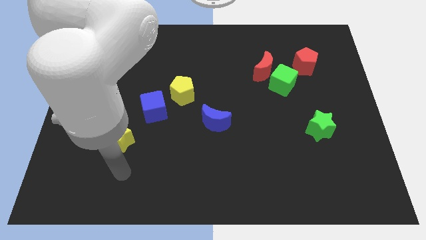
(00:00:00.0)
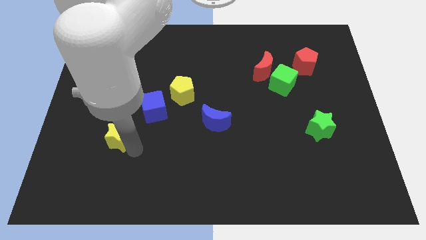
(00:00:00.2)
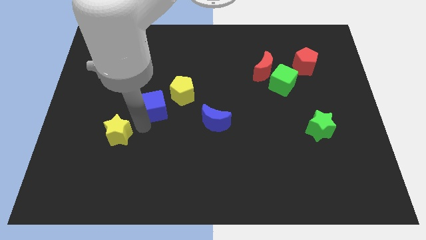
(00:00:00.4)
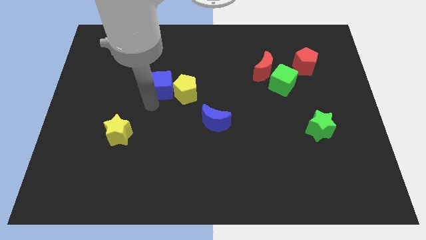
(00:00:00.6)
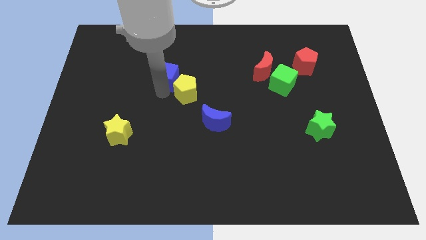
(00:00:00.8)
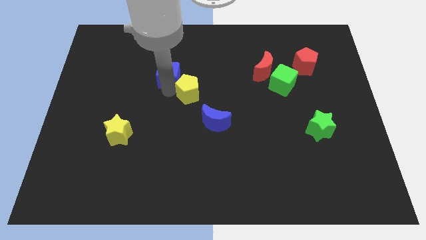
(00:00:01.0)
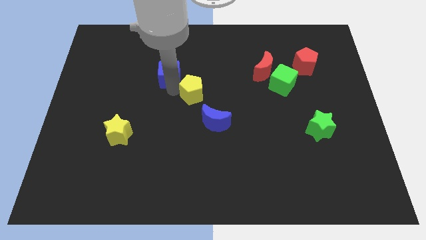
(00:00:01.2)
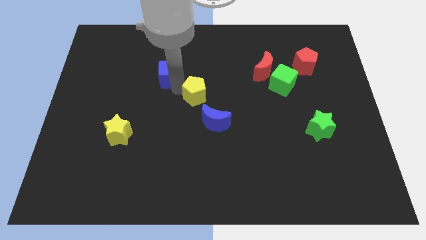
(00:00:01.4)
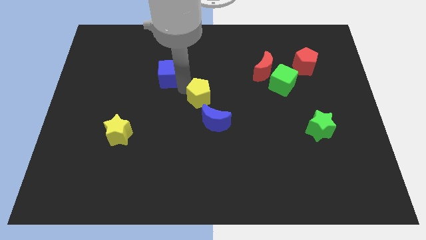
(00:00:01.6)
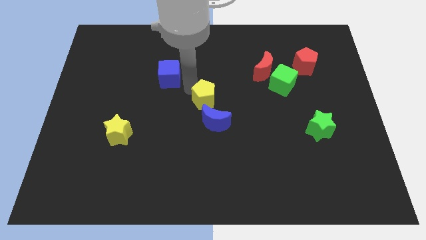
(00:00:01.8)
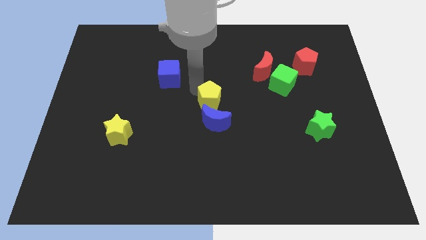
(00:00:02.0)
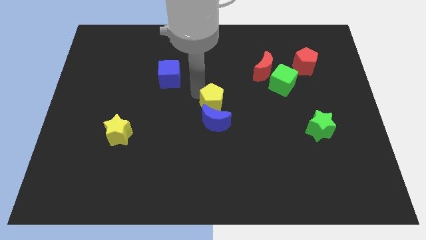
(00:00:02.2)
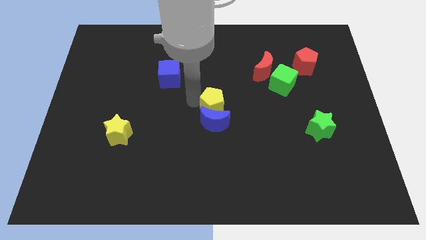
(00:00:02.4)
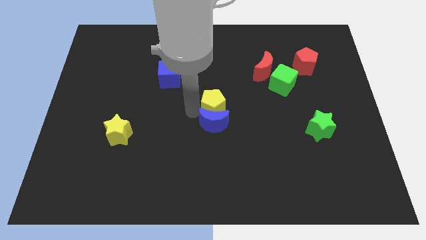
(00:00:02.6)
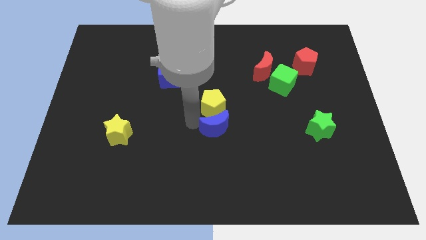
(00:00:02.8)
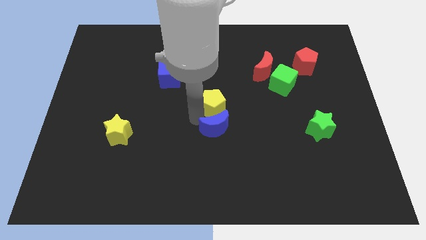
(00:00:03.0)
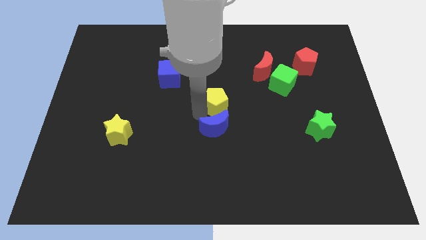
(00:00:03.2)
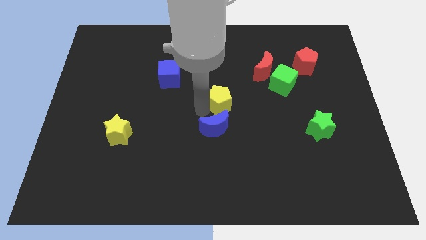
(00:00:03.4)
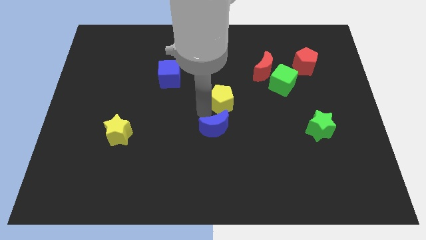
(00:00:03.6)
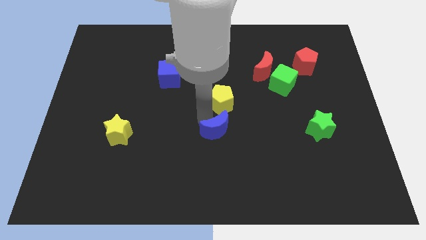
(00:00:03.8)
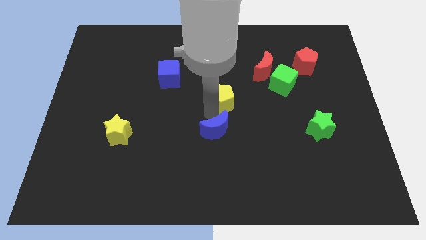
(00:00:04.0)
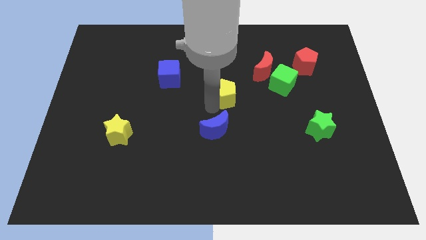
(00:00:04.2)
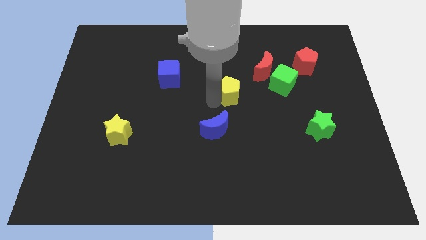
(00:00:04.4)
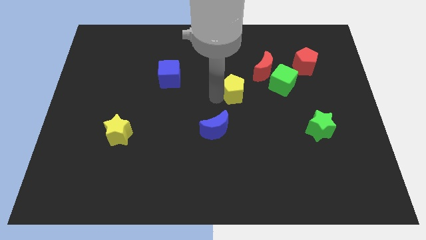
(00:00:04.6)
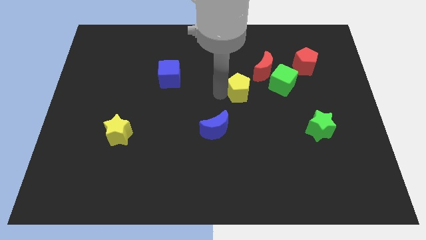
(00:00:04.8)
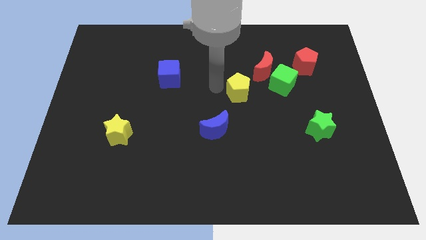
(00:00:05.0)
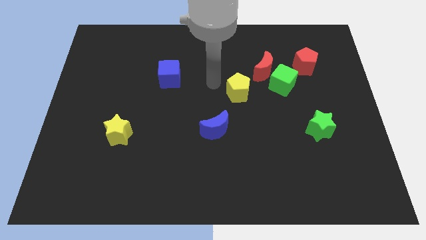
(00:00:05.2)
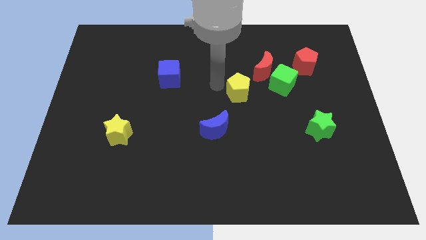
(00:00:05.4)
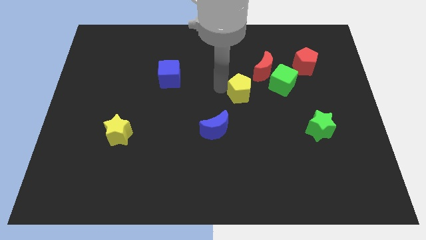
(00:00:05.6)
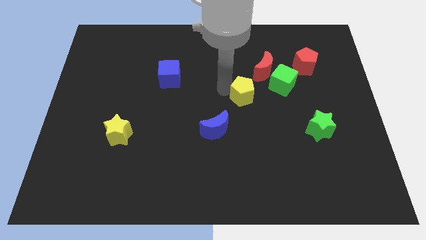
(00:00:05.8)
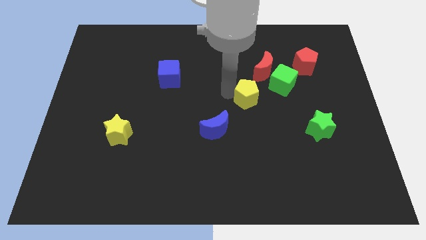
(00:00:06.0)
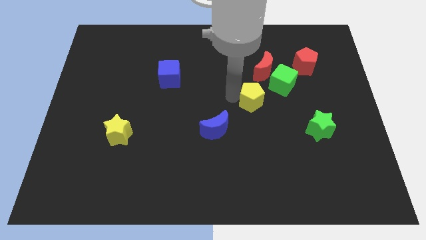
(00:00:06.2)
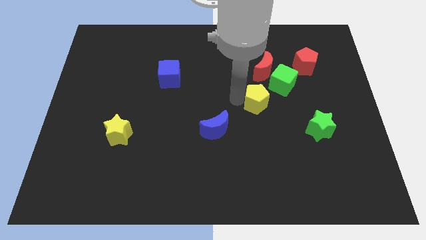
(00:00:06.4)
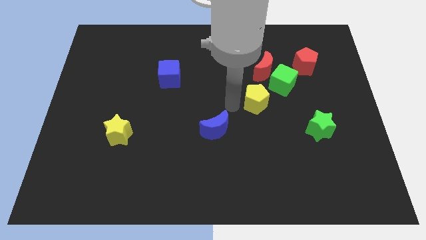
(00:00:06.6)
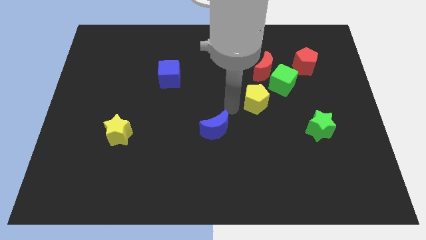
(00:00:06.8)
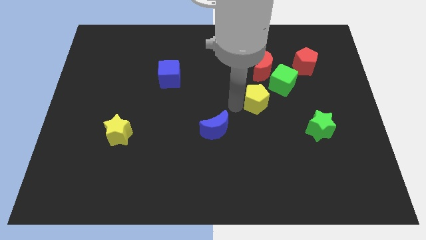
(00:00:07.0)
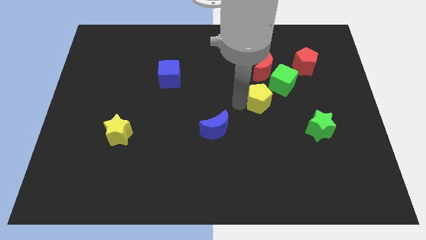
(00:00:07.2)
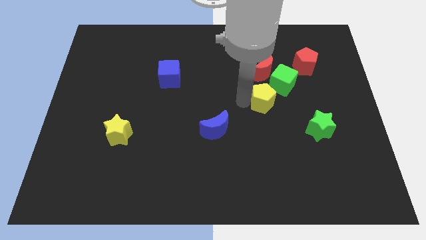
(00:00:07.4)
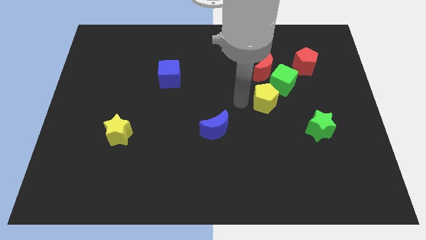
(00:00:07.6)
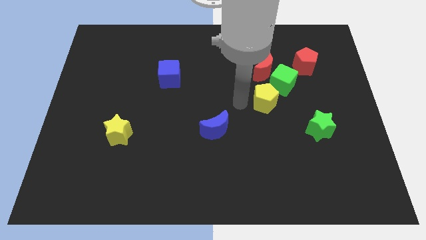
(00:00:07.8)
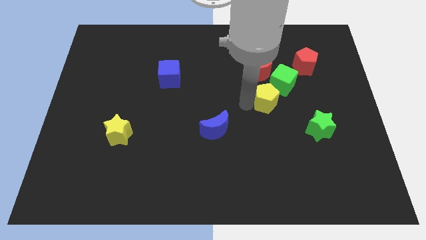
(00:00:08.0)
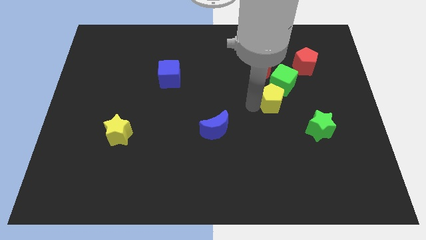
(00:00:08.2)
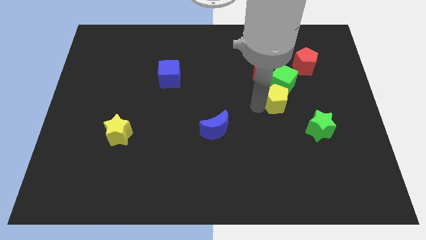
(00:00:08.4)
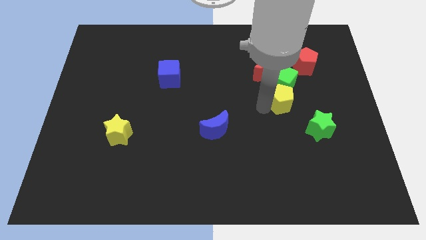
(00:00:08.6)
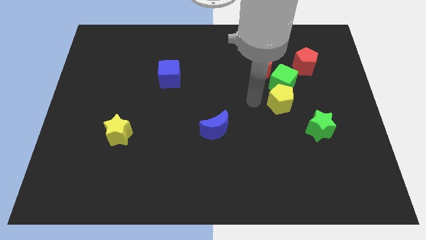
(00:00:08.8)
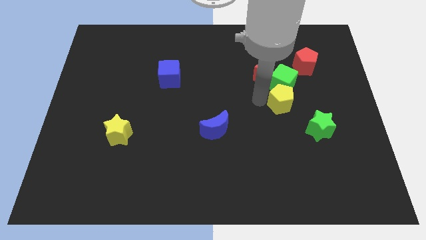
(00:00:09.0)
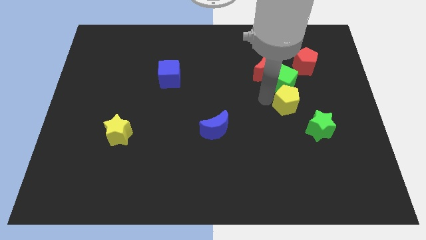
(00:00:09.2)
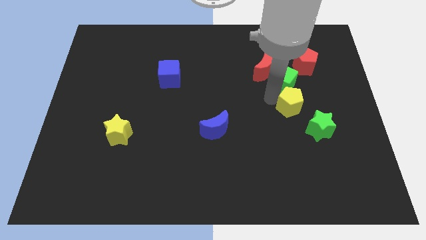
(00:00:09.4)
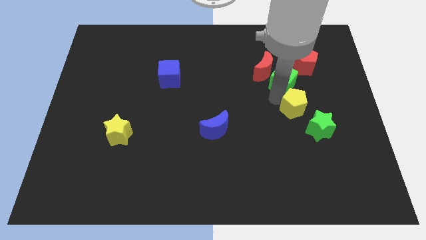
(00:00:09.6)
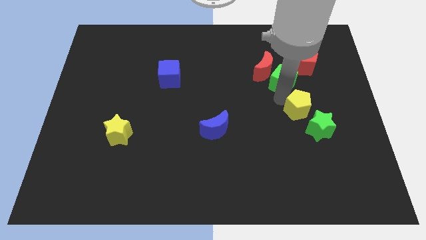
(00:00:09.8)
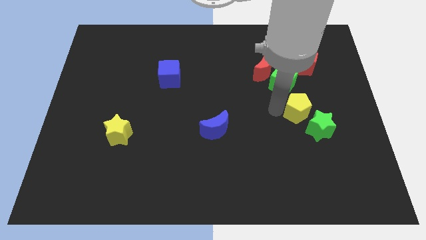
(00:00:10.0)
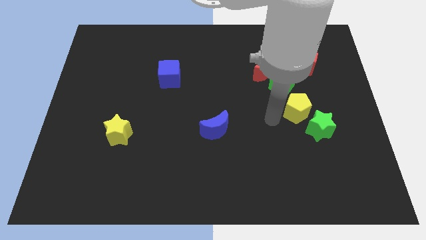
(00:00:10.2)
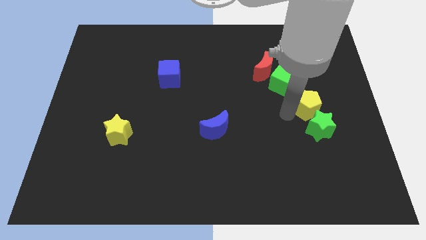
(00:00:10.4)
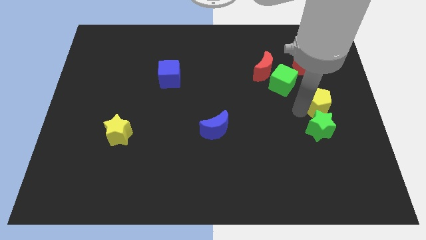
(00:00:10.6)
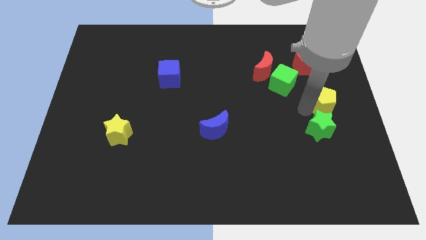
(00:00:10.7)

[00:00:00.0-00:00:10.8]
slide the yellow pentagon to the center right

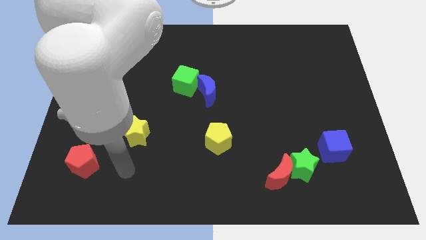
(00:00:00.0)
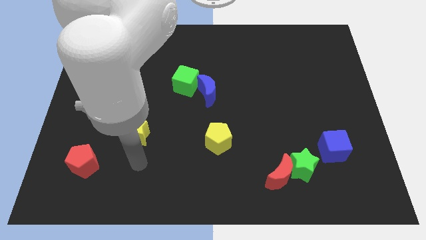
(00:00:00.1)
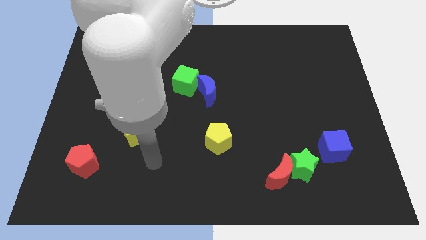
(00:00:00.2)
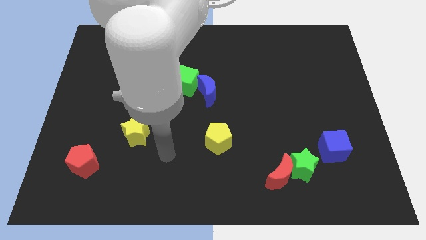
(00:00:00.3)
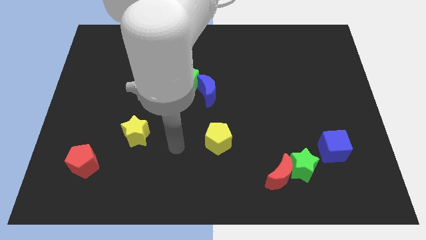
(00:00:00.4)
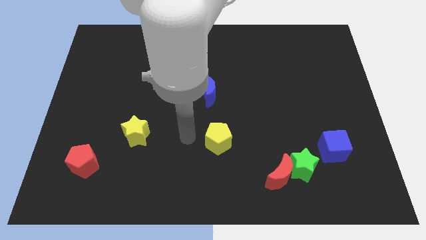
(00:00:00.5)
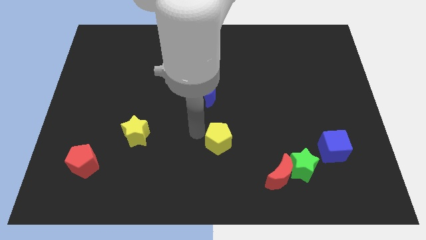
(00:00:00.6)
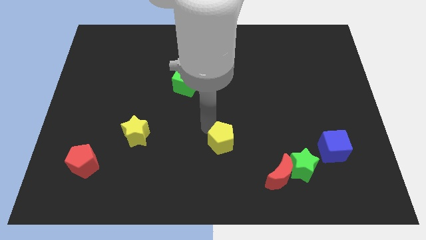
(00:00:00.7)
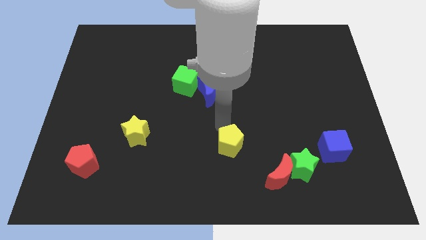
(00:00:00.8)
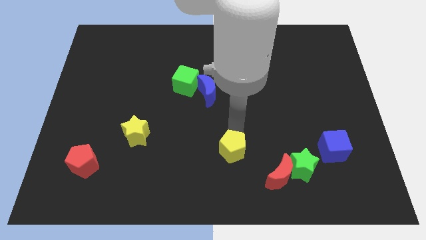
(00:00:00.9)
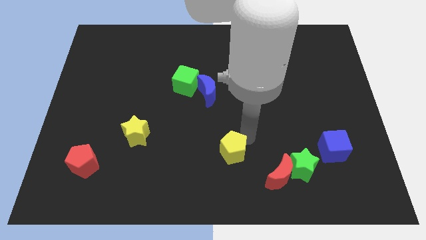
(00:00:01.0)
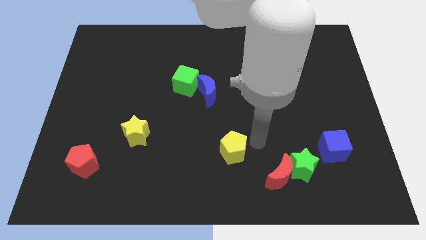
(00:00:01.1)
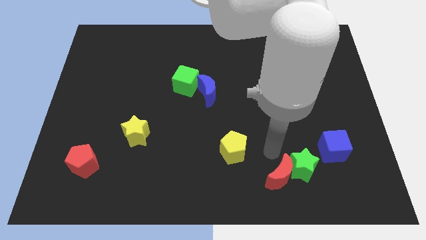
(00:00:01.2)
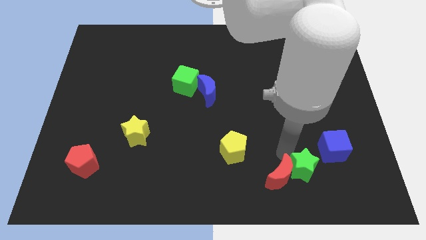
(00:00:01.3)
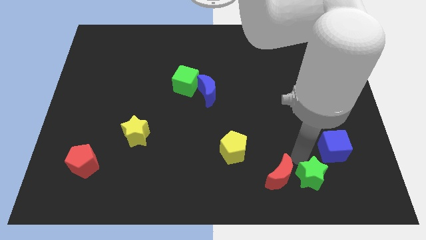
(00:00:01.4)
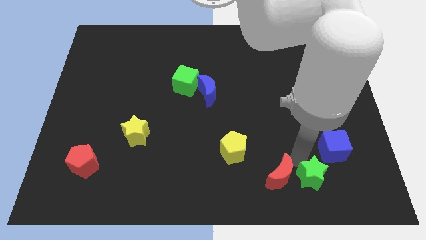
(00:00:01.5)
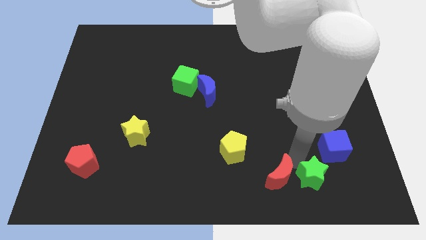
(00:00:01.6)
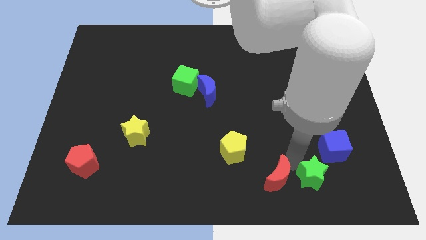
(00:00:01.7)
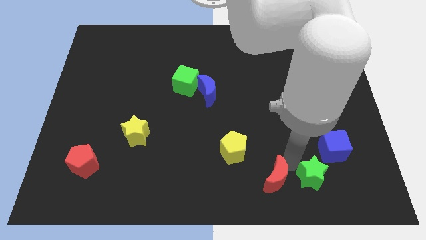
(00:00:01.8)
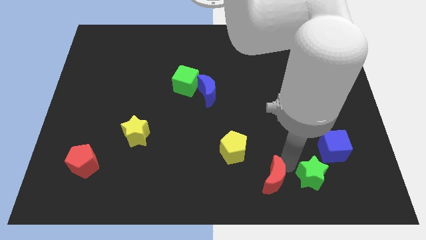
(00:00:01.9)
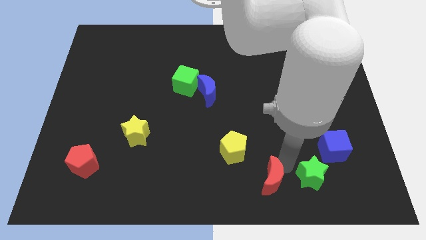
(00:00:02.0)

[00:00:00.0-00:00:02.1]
push the red moon to the bottom side
